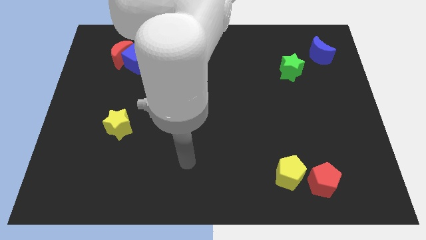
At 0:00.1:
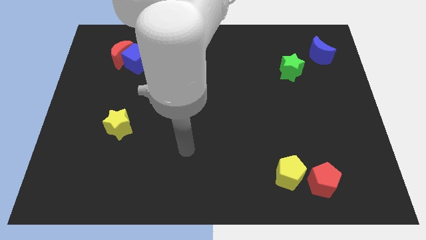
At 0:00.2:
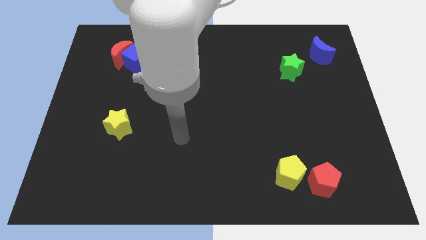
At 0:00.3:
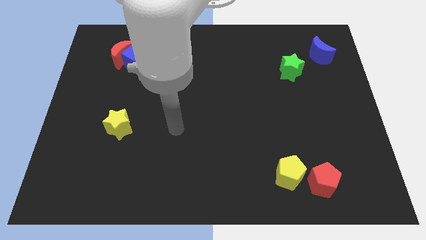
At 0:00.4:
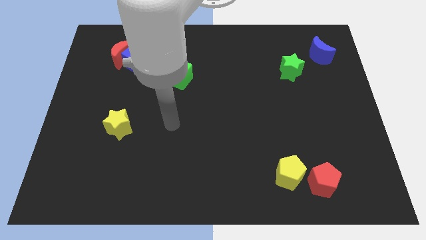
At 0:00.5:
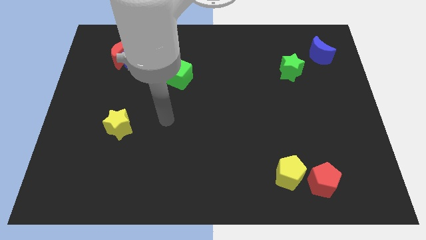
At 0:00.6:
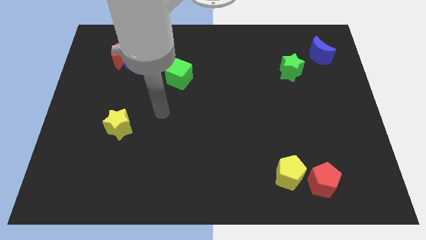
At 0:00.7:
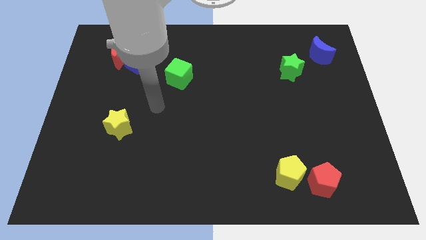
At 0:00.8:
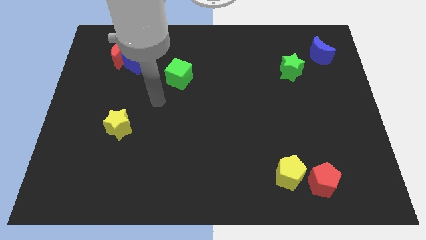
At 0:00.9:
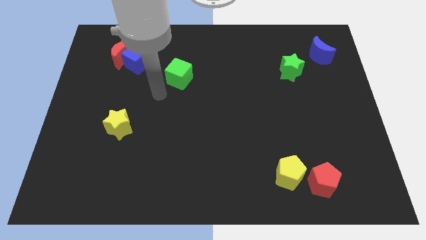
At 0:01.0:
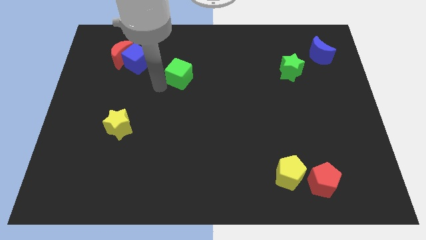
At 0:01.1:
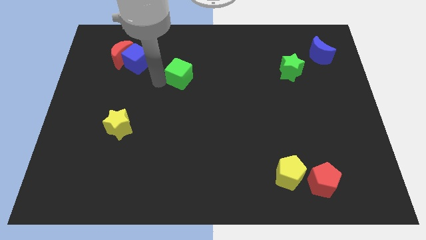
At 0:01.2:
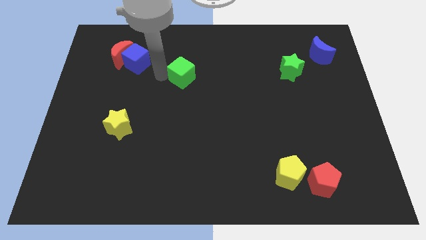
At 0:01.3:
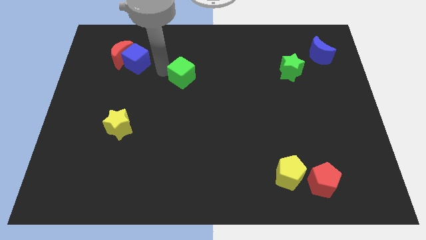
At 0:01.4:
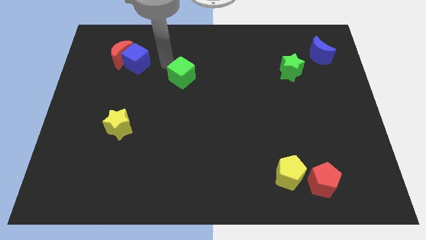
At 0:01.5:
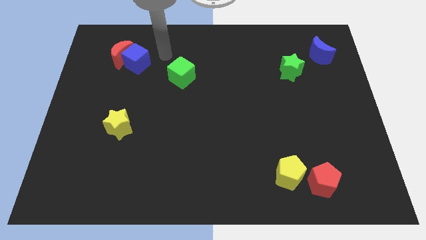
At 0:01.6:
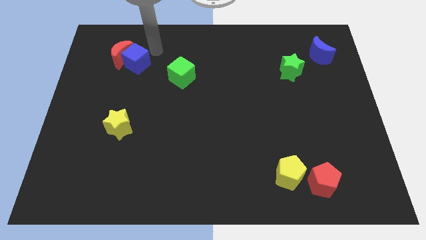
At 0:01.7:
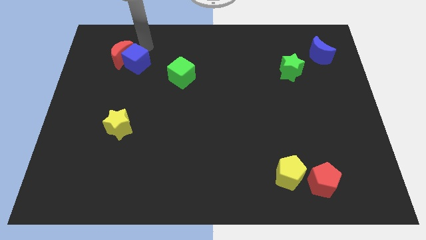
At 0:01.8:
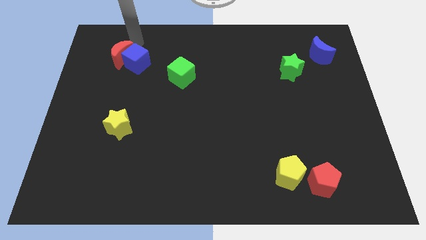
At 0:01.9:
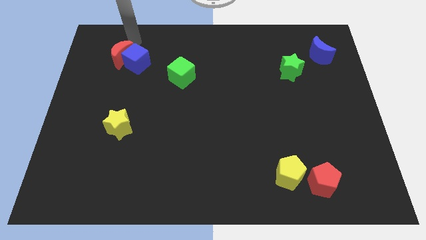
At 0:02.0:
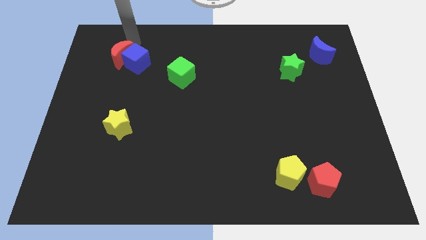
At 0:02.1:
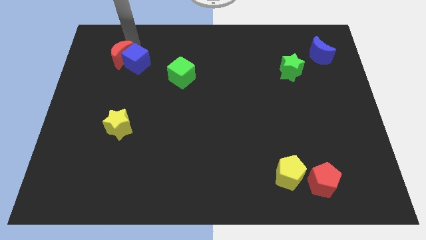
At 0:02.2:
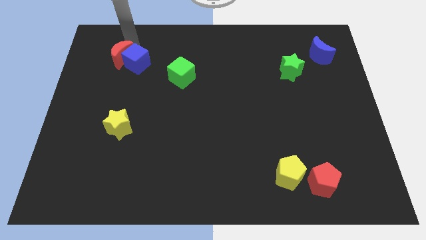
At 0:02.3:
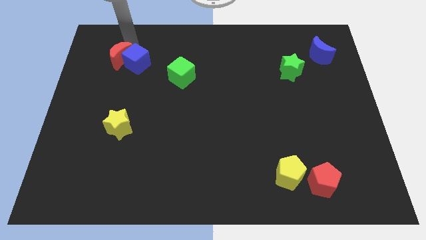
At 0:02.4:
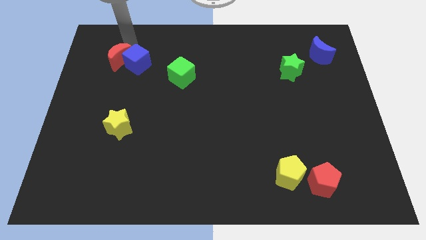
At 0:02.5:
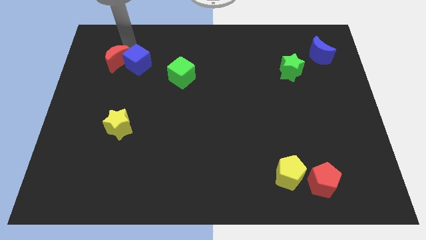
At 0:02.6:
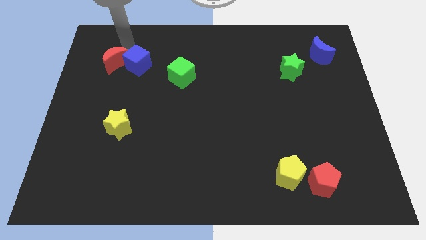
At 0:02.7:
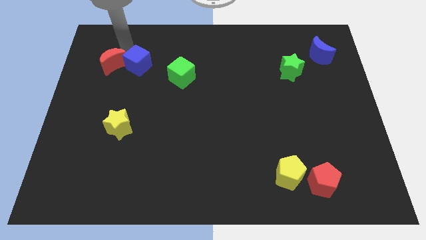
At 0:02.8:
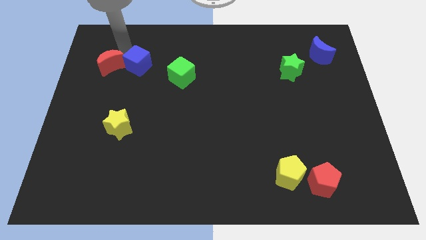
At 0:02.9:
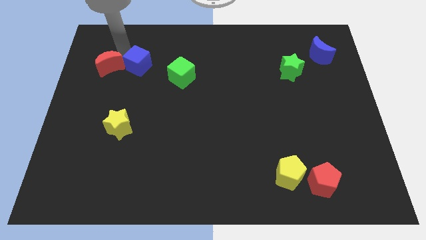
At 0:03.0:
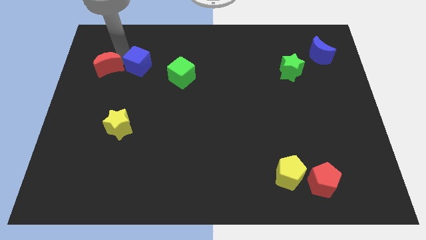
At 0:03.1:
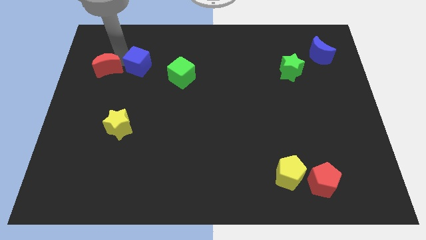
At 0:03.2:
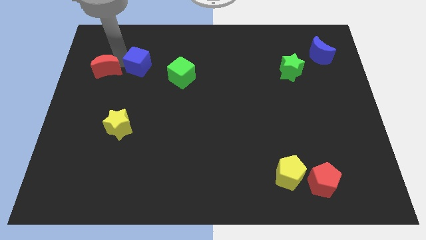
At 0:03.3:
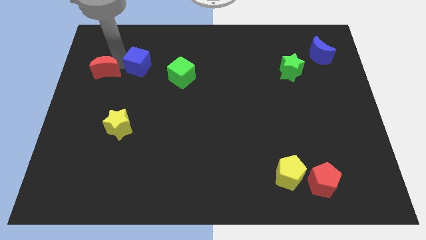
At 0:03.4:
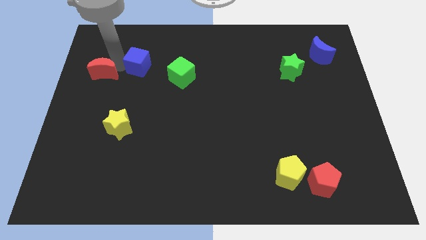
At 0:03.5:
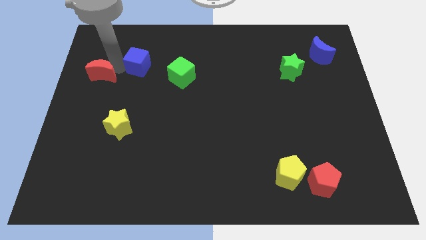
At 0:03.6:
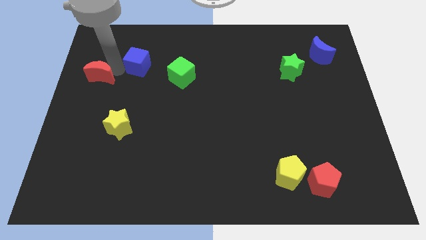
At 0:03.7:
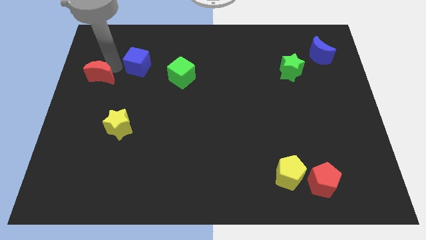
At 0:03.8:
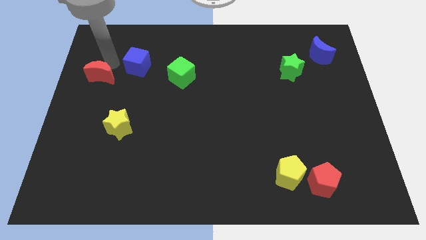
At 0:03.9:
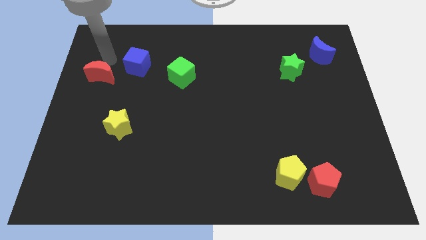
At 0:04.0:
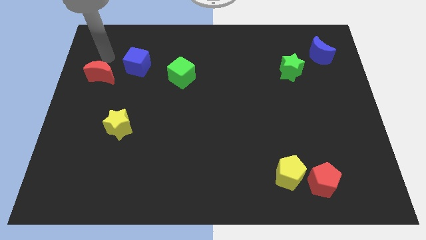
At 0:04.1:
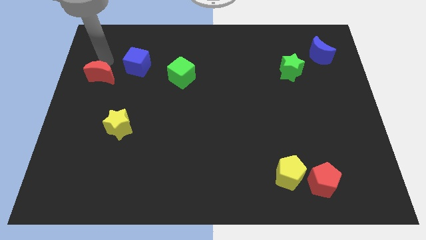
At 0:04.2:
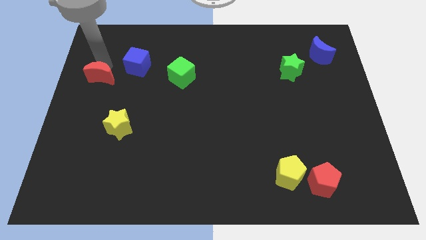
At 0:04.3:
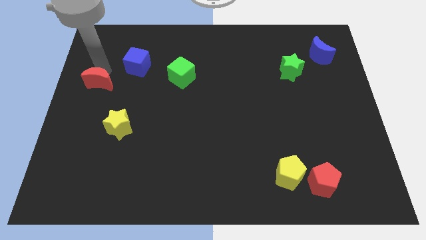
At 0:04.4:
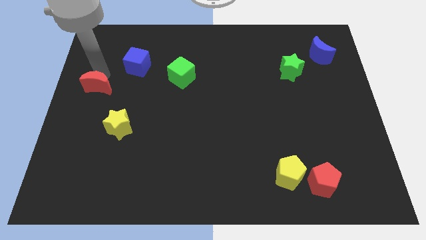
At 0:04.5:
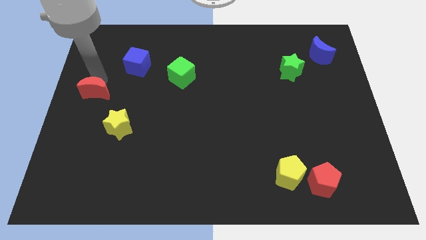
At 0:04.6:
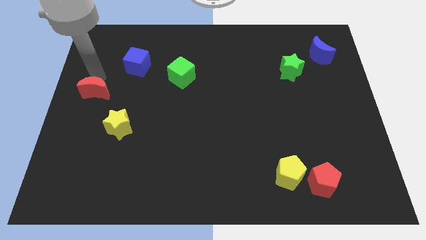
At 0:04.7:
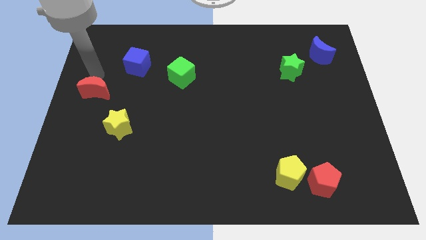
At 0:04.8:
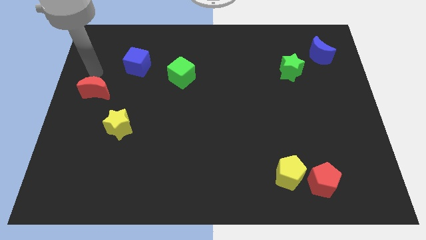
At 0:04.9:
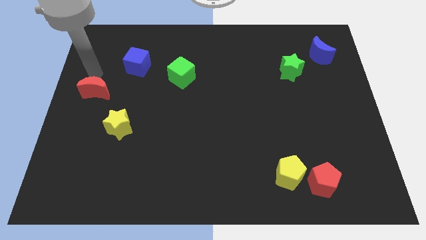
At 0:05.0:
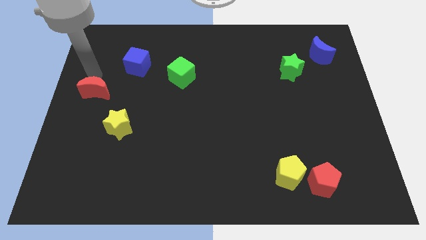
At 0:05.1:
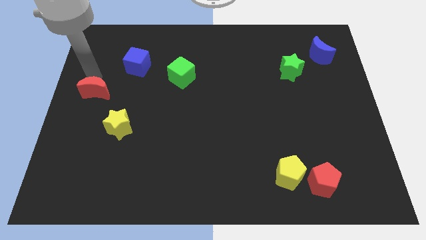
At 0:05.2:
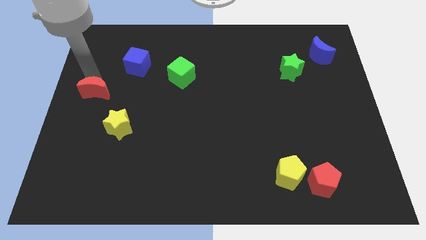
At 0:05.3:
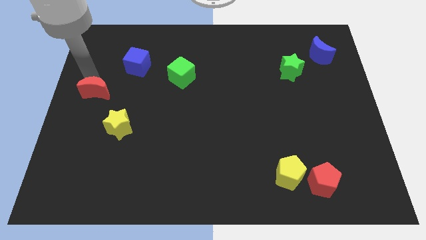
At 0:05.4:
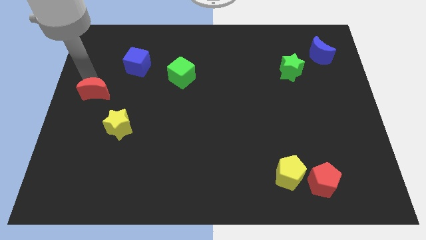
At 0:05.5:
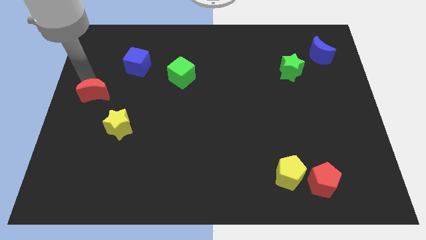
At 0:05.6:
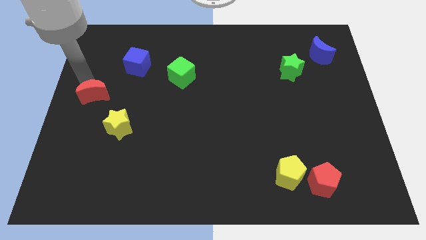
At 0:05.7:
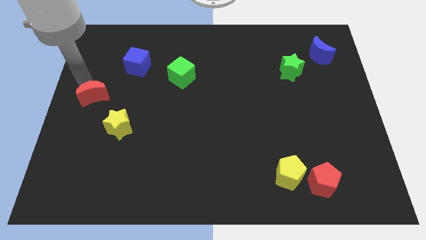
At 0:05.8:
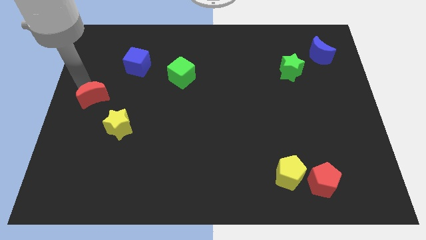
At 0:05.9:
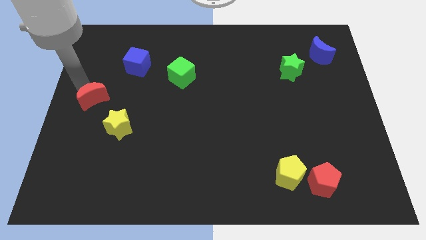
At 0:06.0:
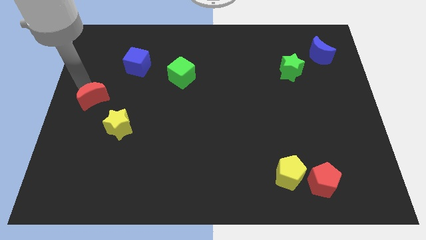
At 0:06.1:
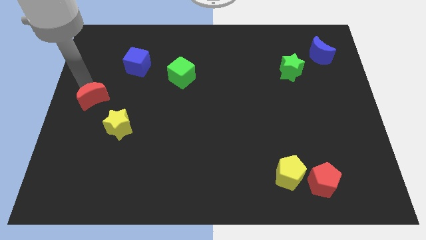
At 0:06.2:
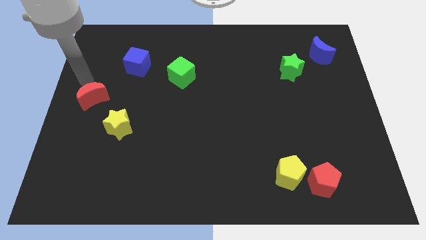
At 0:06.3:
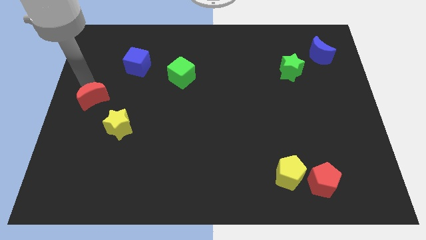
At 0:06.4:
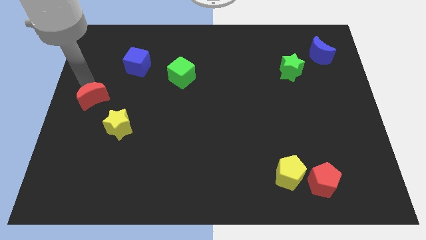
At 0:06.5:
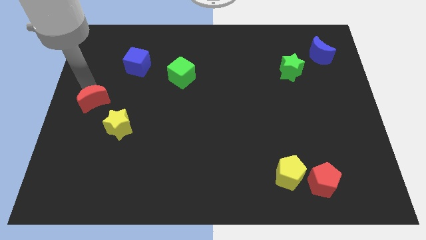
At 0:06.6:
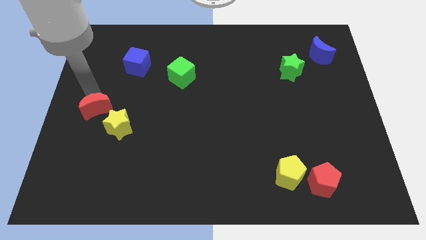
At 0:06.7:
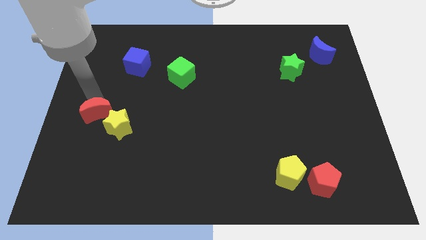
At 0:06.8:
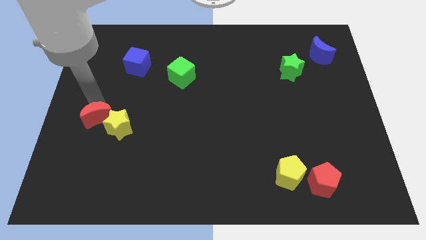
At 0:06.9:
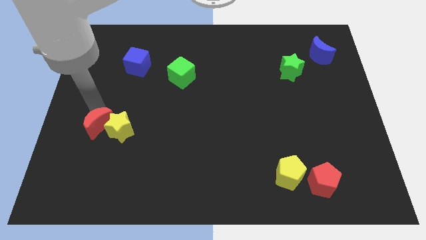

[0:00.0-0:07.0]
push the red moon downwards

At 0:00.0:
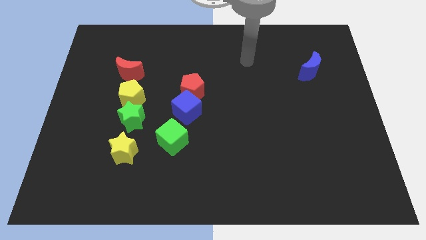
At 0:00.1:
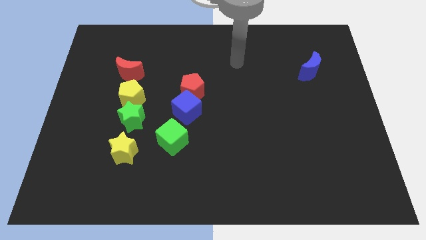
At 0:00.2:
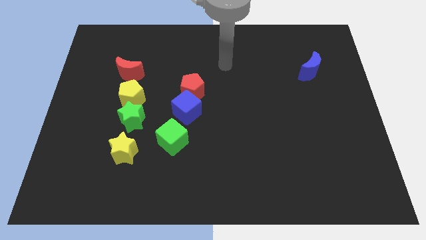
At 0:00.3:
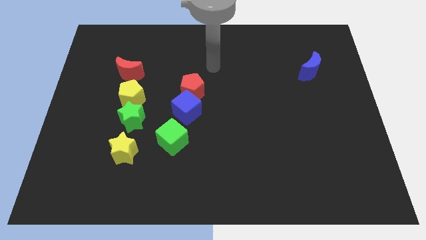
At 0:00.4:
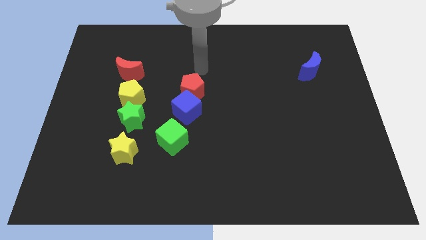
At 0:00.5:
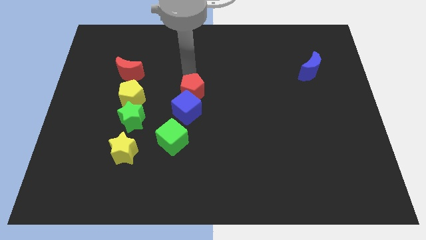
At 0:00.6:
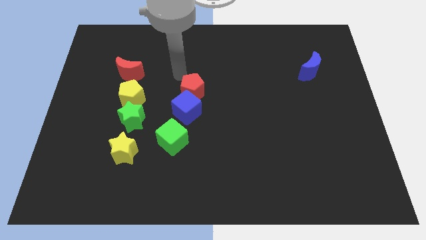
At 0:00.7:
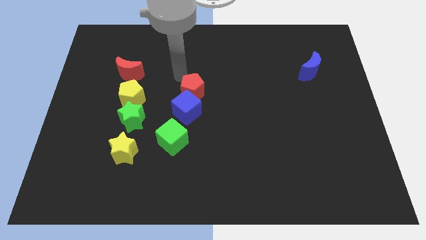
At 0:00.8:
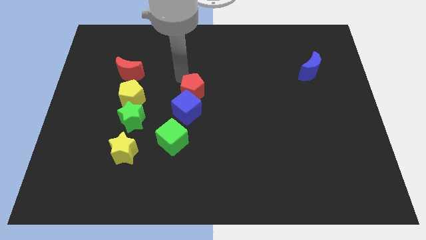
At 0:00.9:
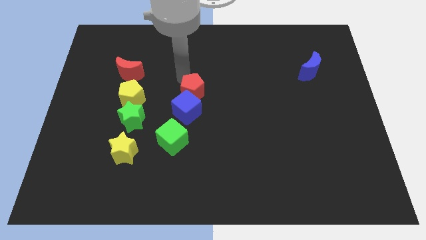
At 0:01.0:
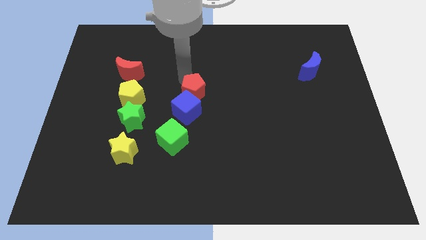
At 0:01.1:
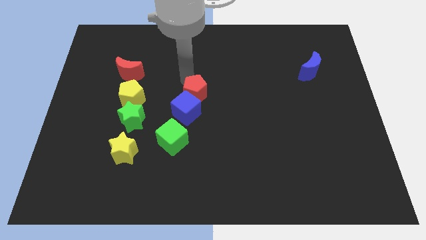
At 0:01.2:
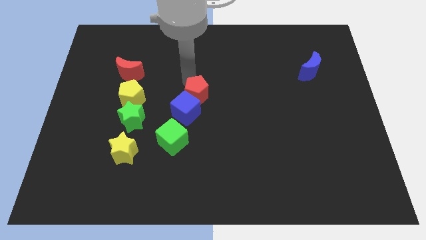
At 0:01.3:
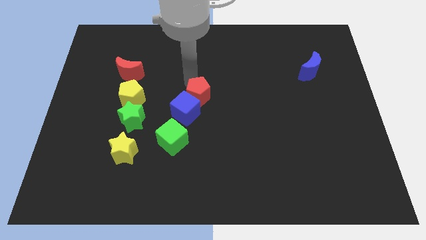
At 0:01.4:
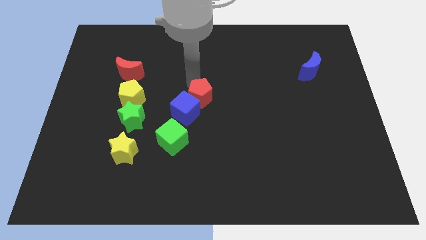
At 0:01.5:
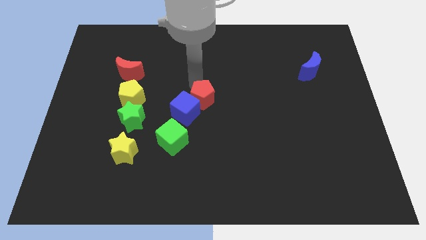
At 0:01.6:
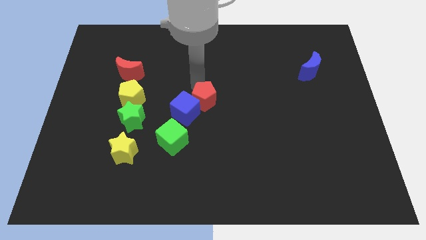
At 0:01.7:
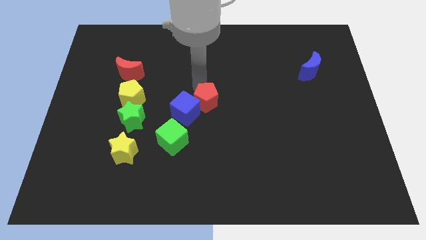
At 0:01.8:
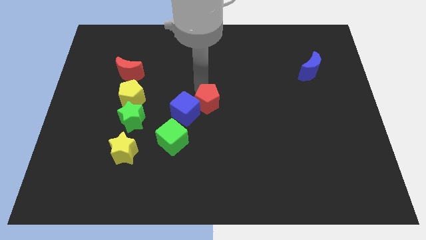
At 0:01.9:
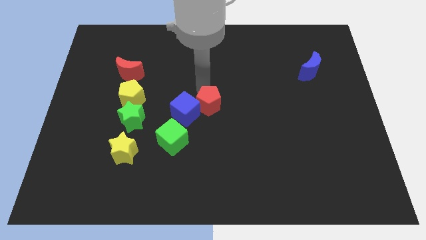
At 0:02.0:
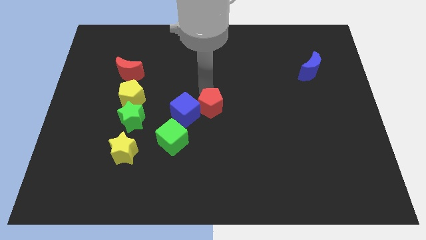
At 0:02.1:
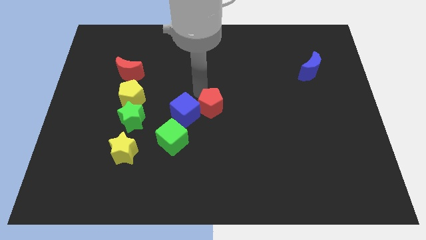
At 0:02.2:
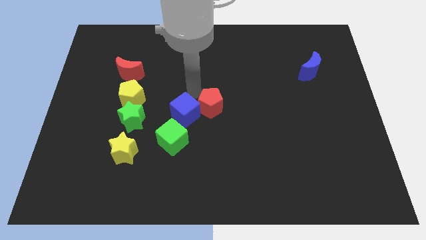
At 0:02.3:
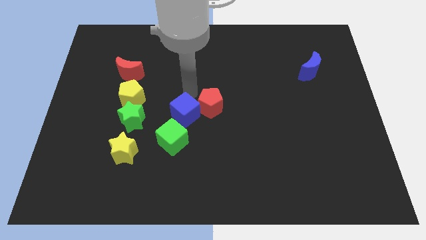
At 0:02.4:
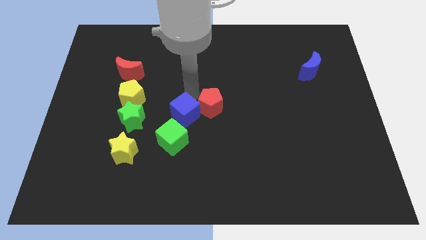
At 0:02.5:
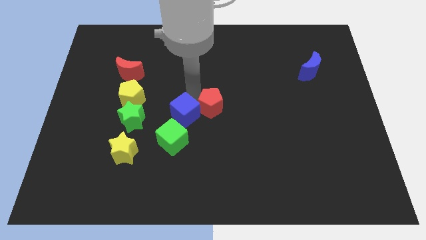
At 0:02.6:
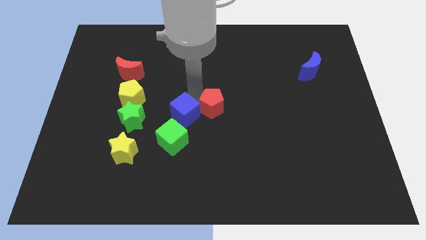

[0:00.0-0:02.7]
push the red pentagon a little bit down and to the right
